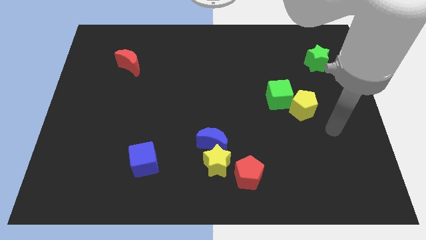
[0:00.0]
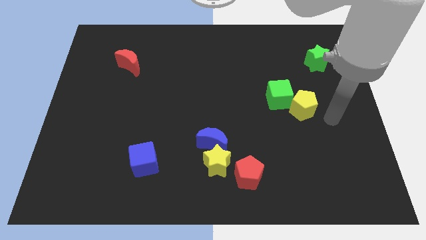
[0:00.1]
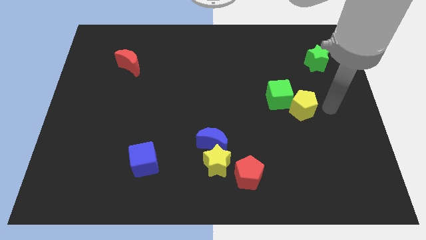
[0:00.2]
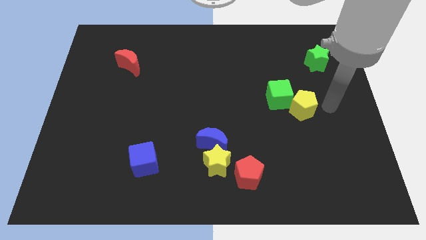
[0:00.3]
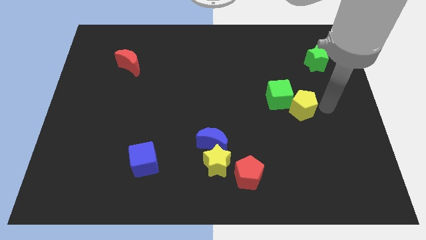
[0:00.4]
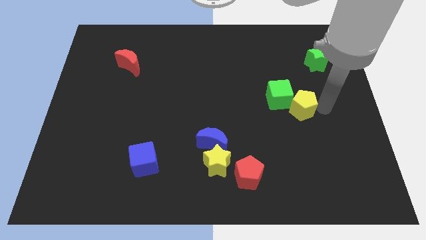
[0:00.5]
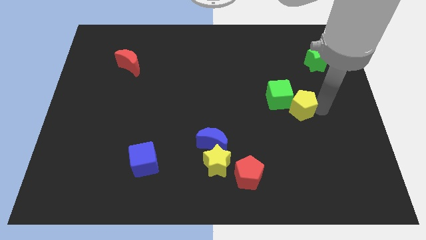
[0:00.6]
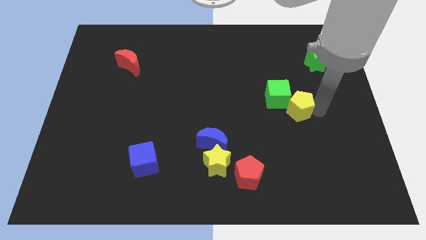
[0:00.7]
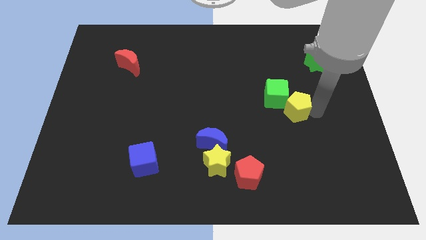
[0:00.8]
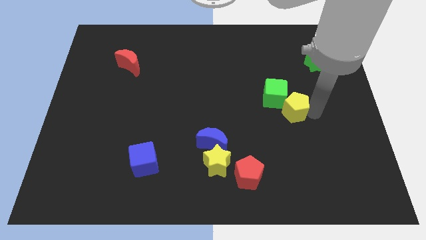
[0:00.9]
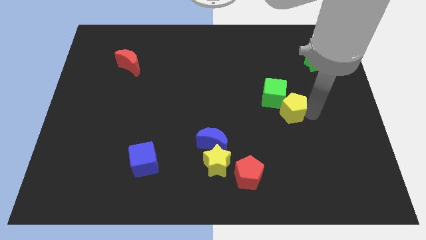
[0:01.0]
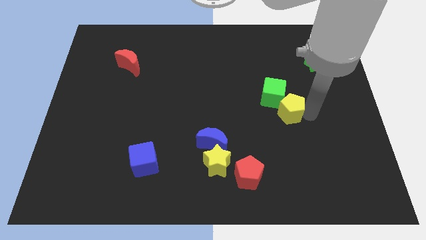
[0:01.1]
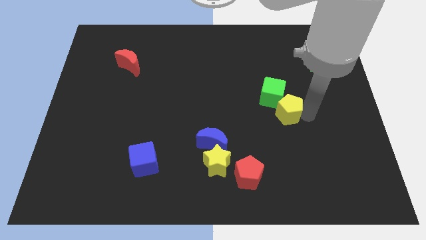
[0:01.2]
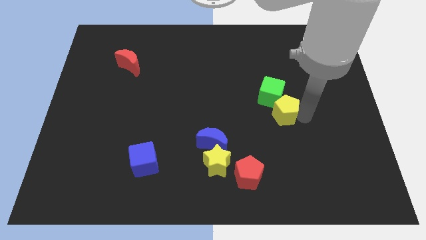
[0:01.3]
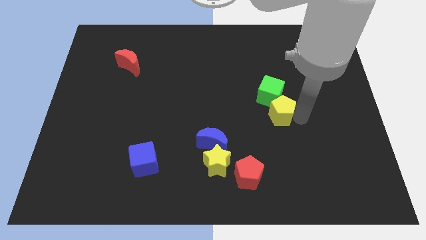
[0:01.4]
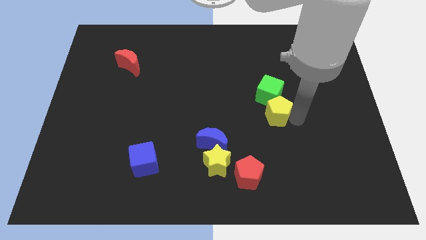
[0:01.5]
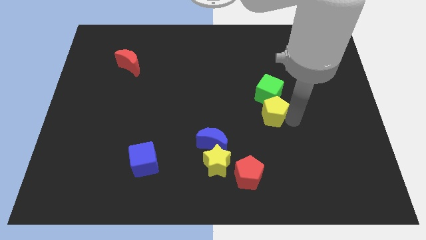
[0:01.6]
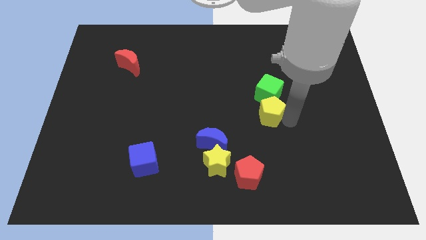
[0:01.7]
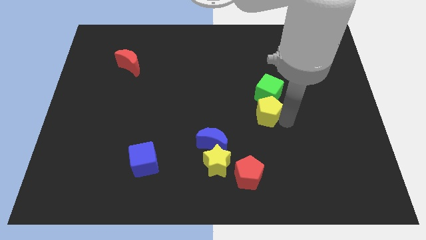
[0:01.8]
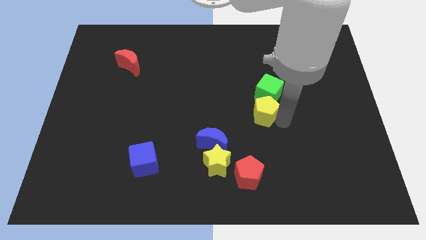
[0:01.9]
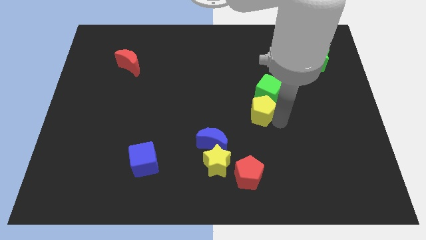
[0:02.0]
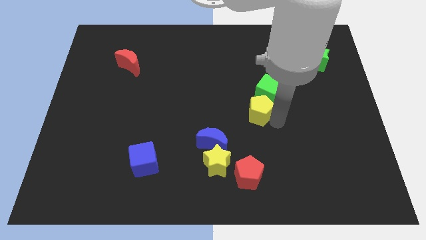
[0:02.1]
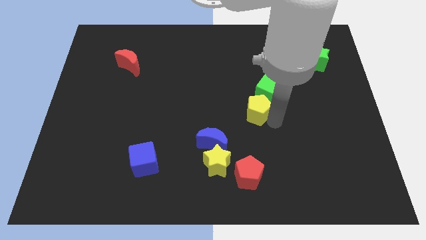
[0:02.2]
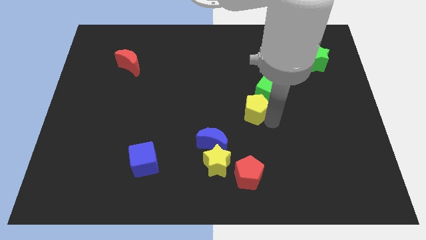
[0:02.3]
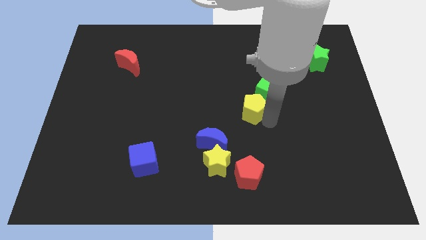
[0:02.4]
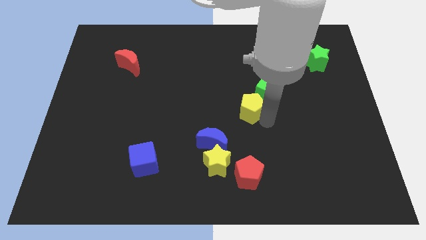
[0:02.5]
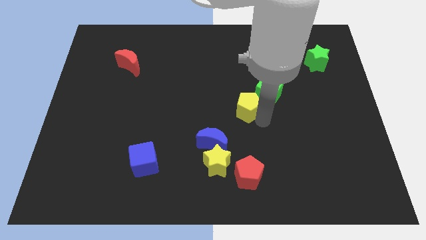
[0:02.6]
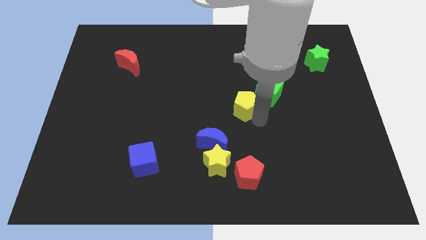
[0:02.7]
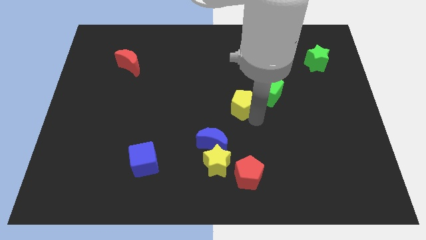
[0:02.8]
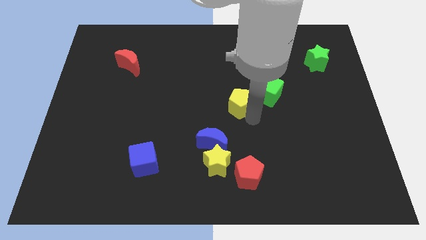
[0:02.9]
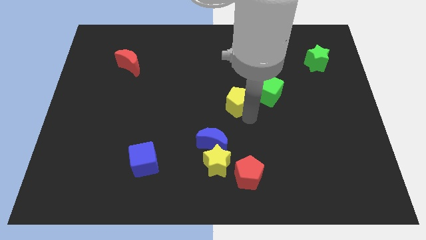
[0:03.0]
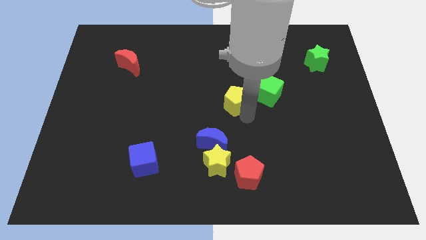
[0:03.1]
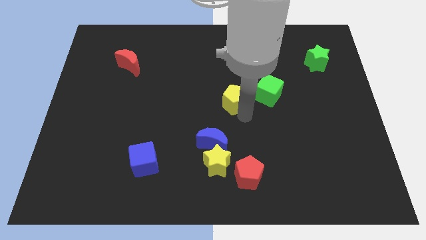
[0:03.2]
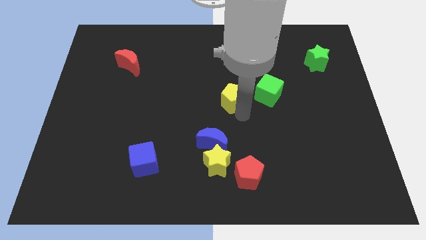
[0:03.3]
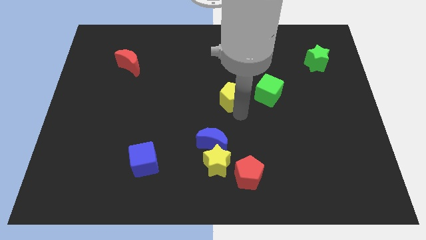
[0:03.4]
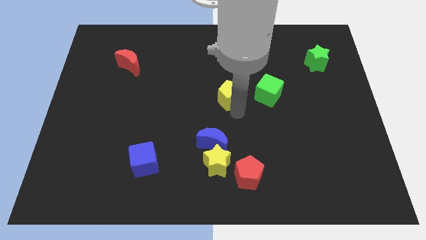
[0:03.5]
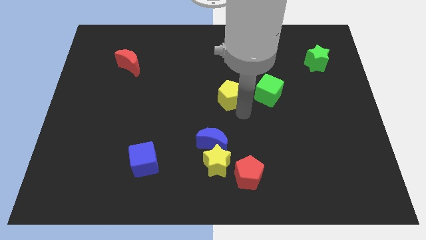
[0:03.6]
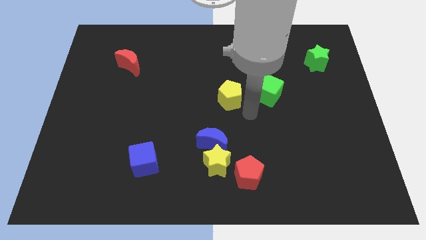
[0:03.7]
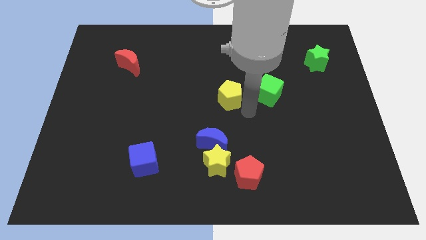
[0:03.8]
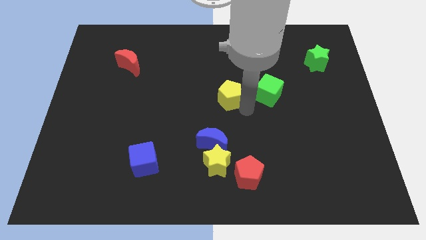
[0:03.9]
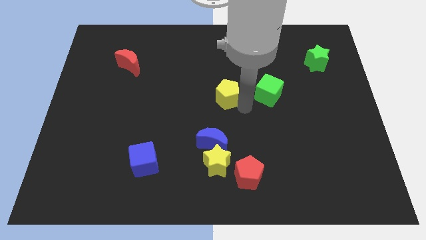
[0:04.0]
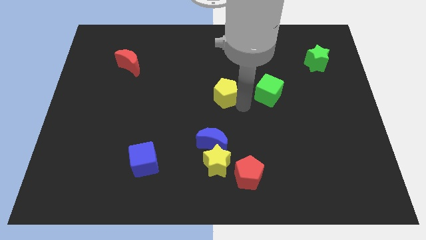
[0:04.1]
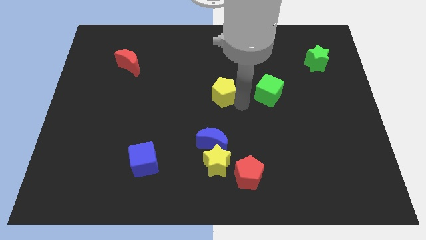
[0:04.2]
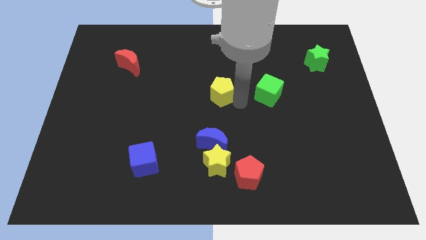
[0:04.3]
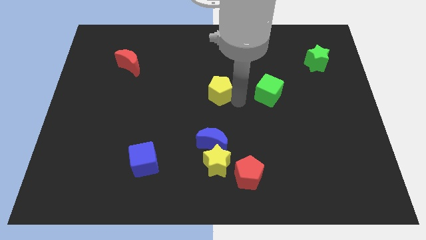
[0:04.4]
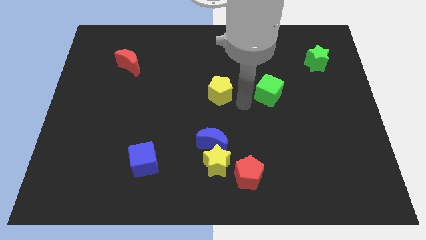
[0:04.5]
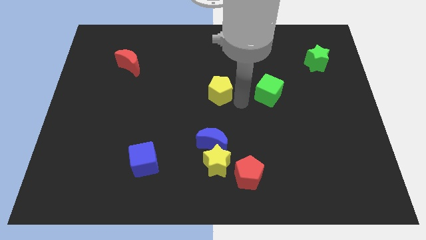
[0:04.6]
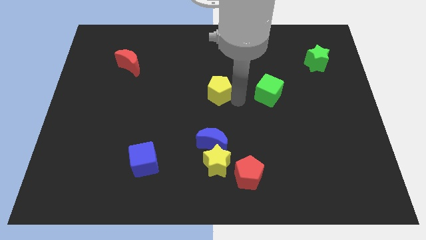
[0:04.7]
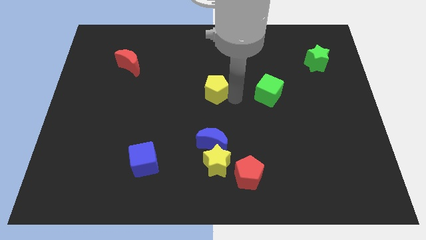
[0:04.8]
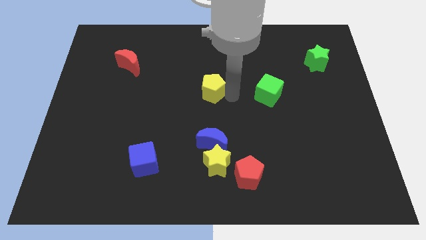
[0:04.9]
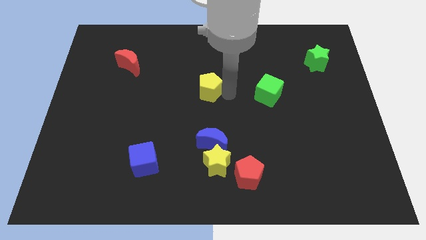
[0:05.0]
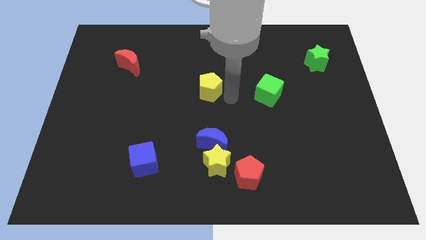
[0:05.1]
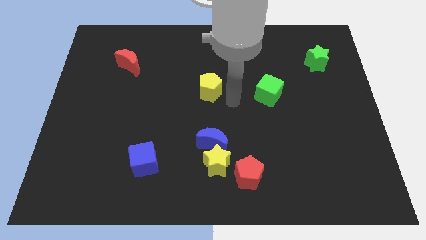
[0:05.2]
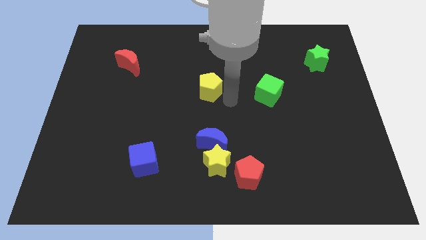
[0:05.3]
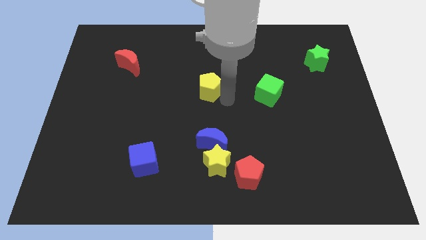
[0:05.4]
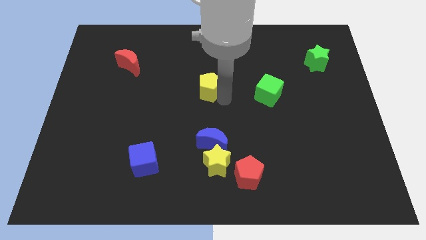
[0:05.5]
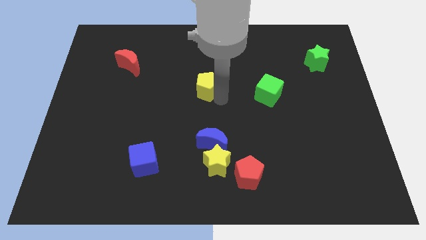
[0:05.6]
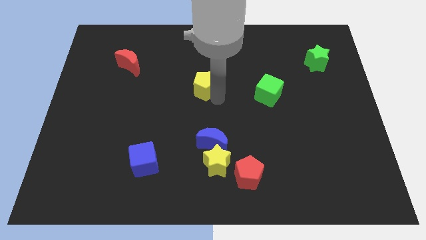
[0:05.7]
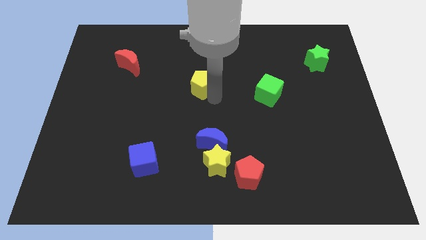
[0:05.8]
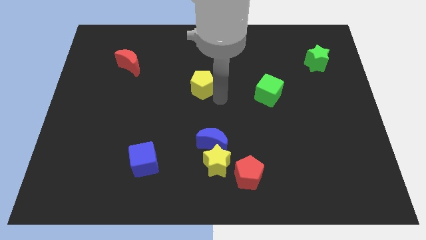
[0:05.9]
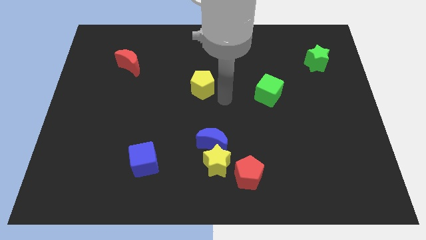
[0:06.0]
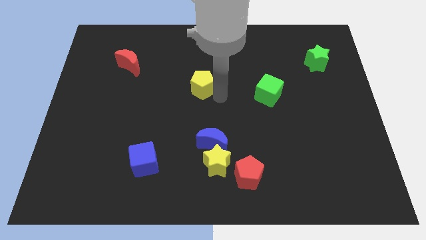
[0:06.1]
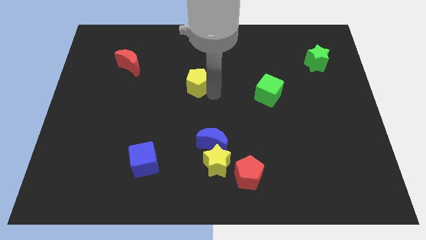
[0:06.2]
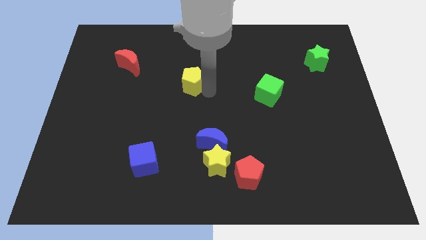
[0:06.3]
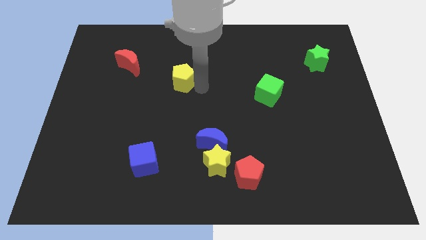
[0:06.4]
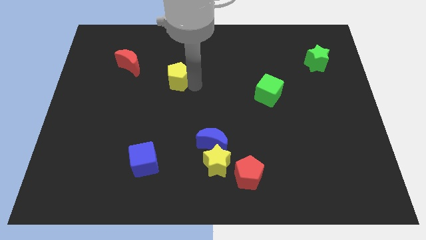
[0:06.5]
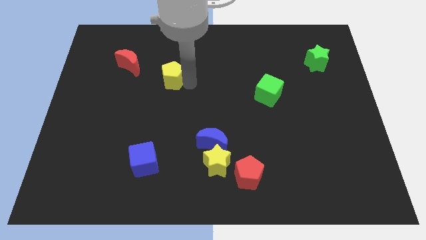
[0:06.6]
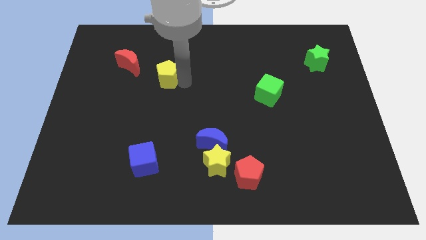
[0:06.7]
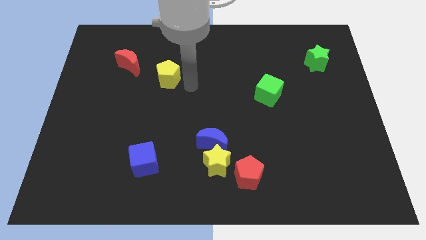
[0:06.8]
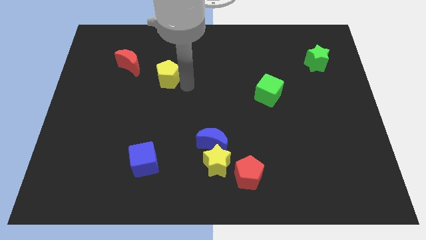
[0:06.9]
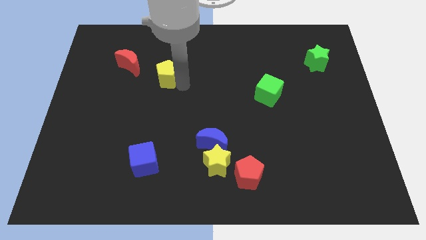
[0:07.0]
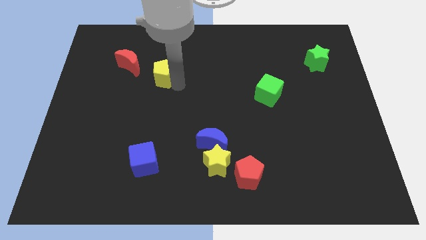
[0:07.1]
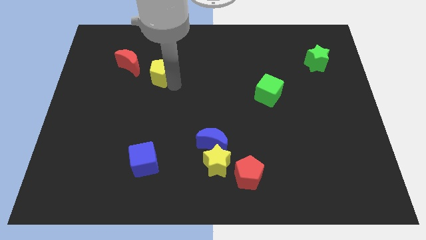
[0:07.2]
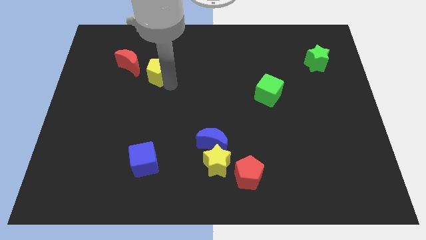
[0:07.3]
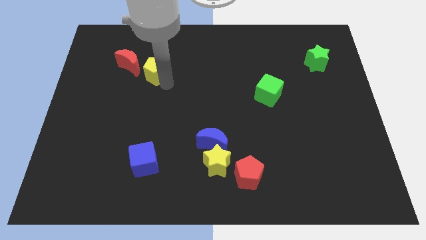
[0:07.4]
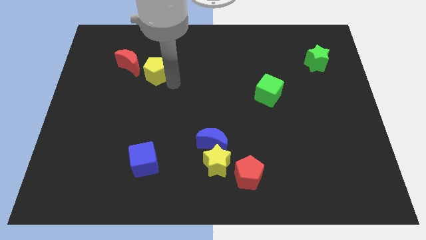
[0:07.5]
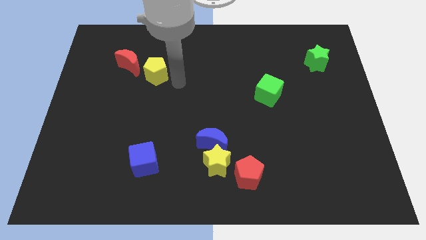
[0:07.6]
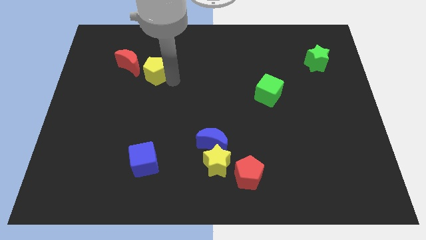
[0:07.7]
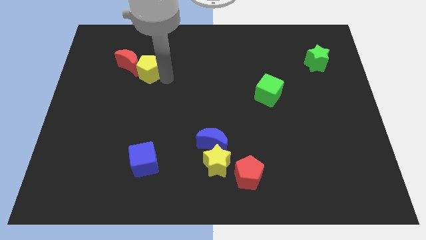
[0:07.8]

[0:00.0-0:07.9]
slide the yellow pentagon towards the red moon
